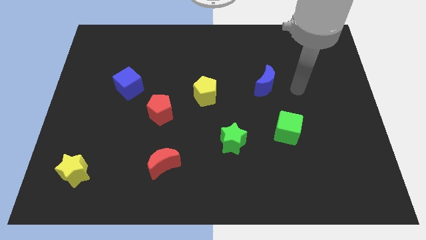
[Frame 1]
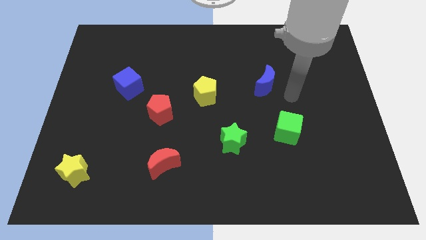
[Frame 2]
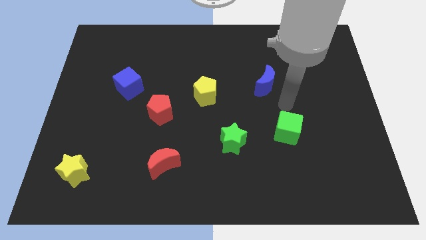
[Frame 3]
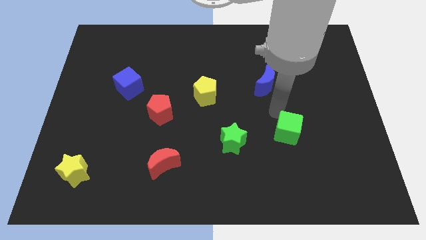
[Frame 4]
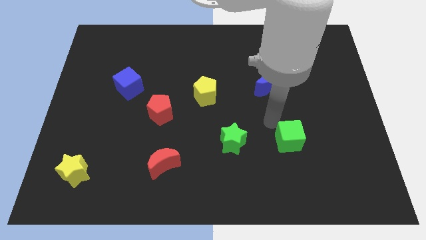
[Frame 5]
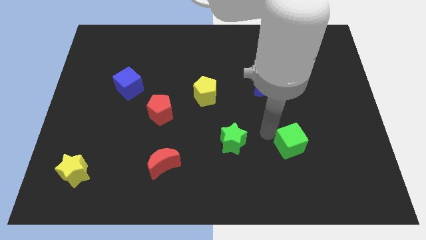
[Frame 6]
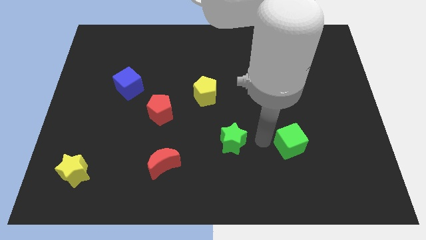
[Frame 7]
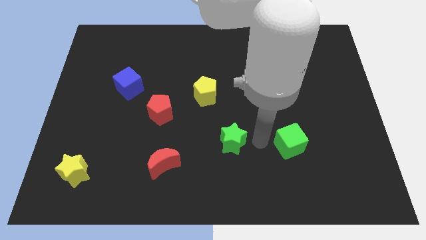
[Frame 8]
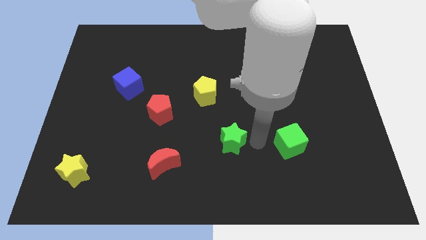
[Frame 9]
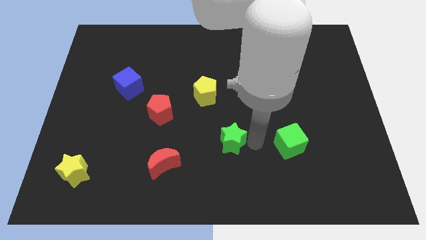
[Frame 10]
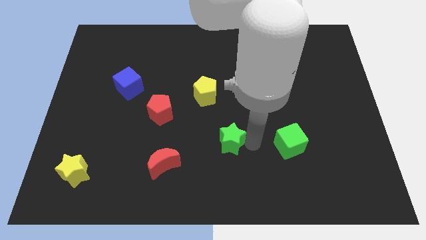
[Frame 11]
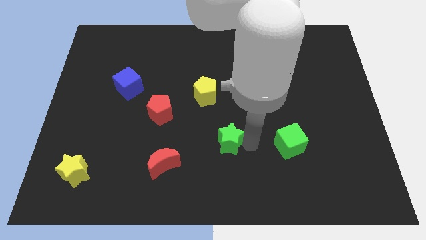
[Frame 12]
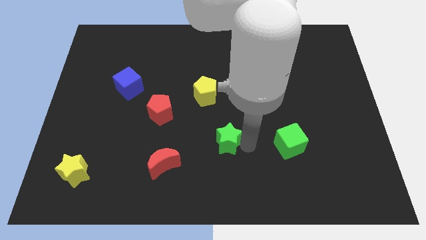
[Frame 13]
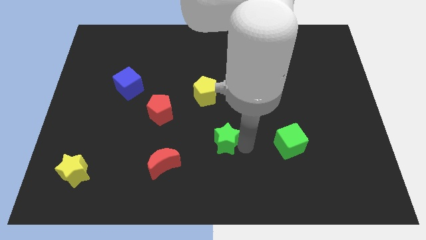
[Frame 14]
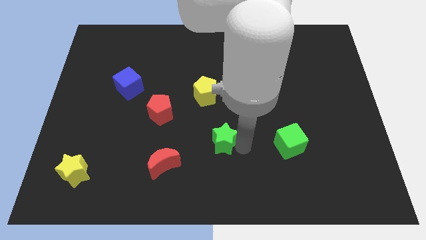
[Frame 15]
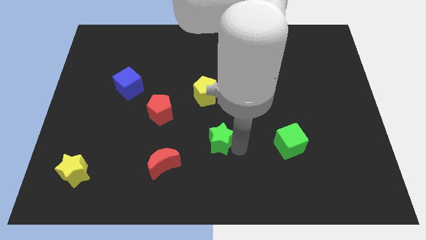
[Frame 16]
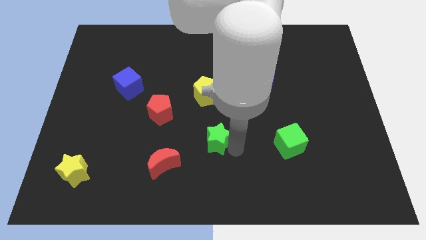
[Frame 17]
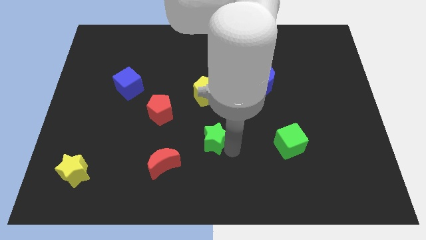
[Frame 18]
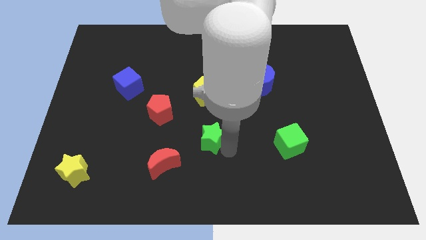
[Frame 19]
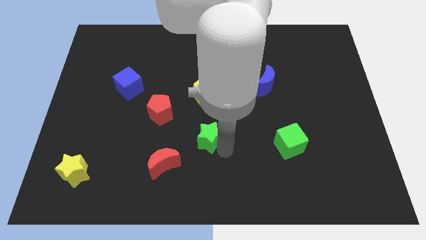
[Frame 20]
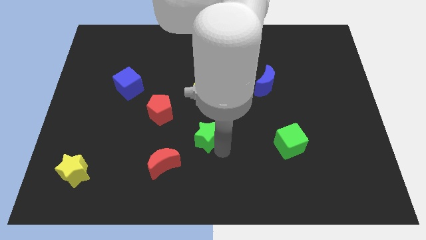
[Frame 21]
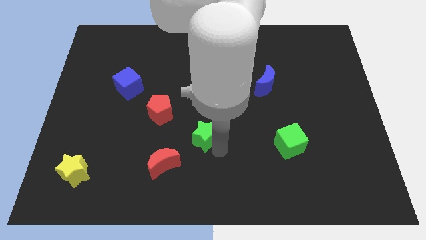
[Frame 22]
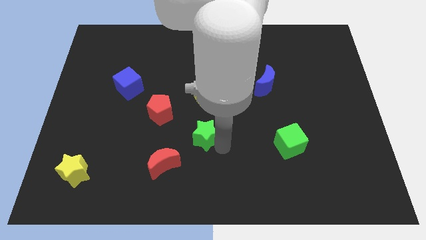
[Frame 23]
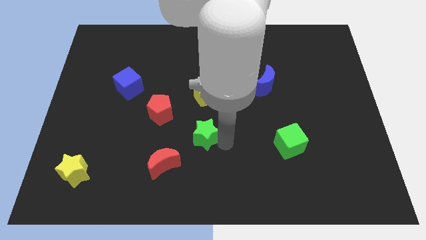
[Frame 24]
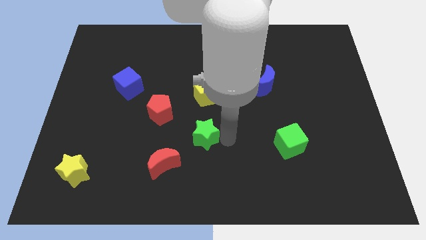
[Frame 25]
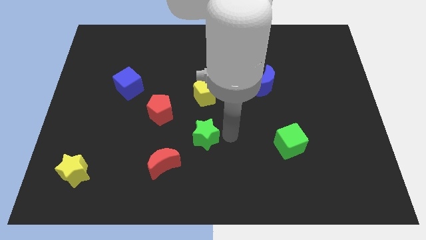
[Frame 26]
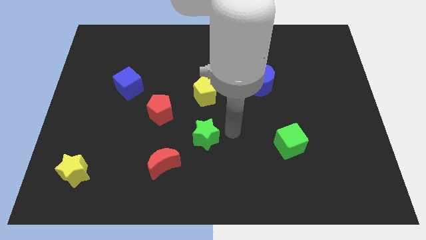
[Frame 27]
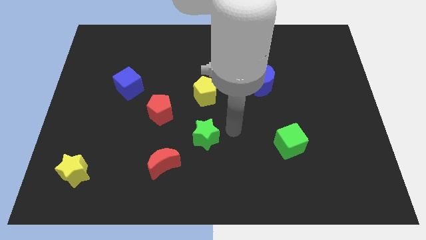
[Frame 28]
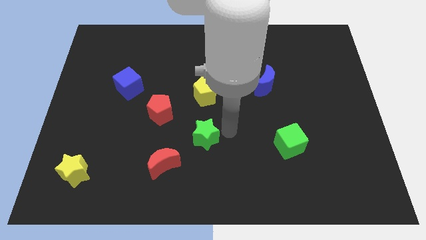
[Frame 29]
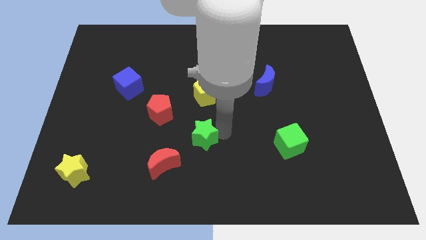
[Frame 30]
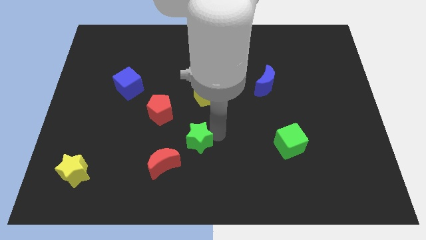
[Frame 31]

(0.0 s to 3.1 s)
push the green star left a little bit

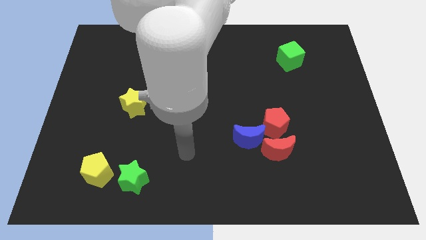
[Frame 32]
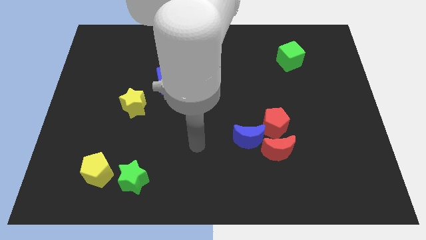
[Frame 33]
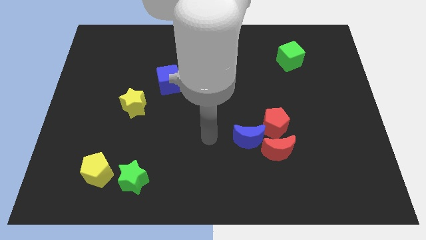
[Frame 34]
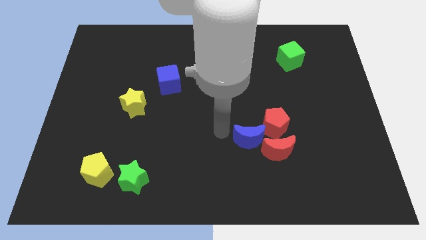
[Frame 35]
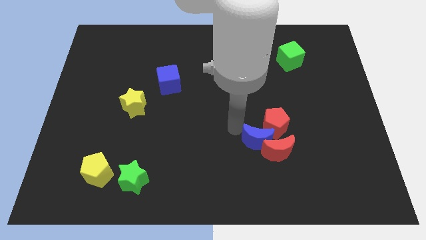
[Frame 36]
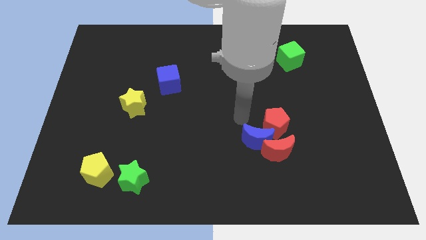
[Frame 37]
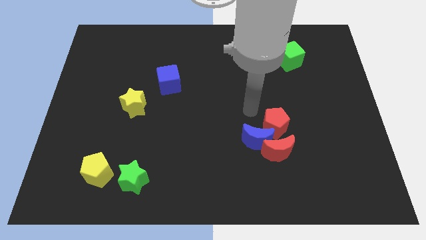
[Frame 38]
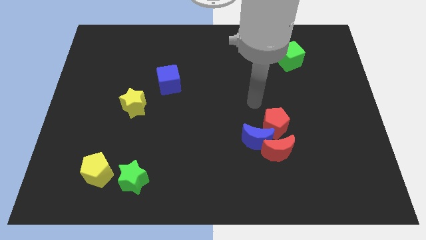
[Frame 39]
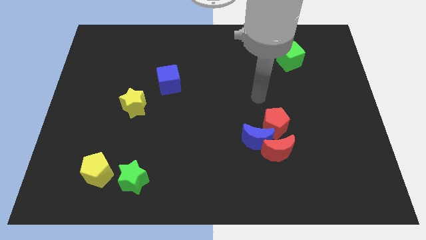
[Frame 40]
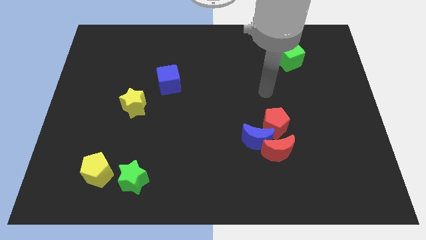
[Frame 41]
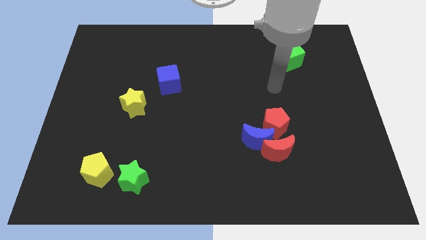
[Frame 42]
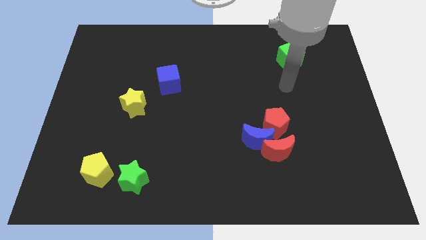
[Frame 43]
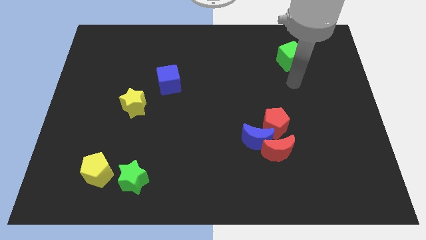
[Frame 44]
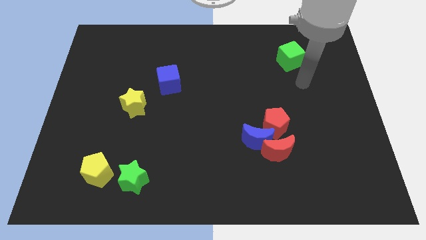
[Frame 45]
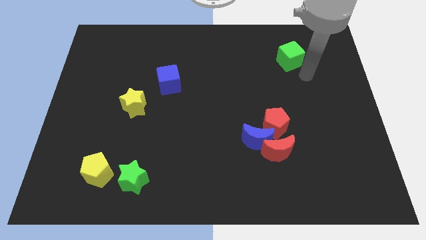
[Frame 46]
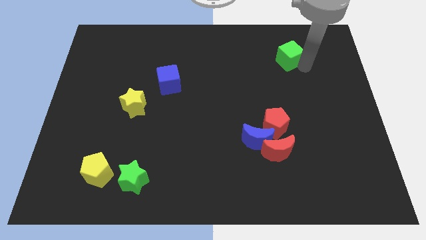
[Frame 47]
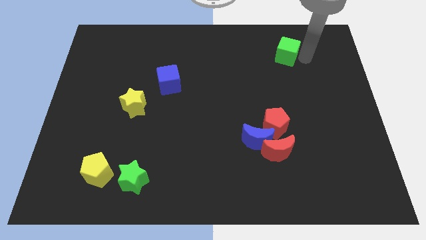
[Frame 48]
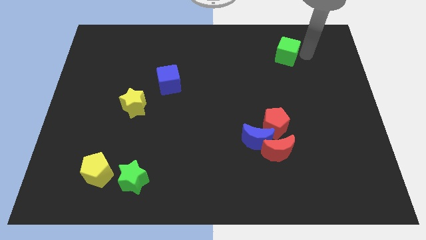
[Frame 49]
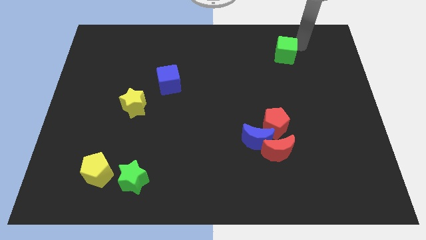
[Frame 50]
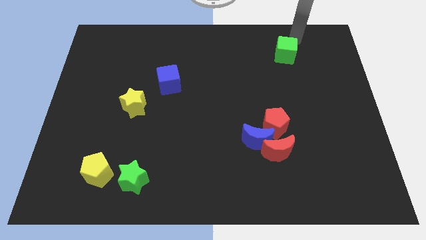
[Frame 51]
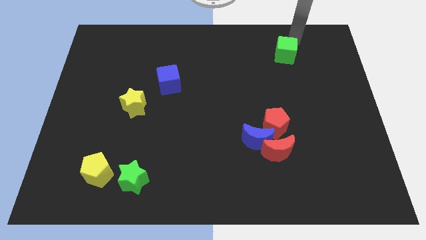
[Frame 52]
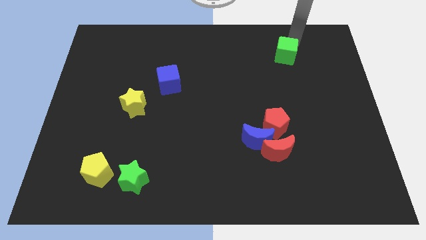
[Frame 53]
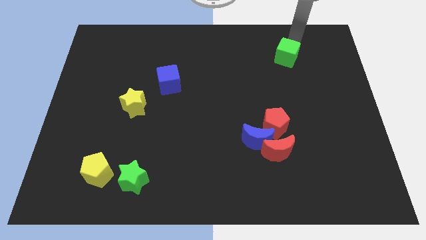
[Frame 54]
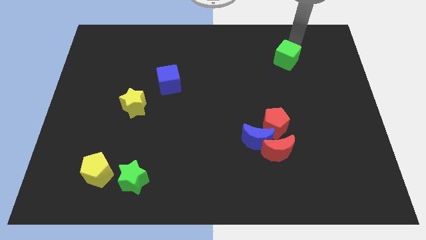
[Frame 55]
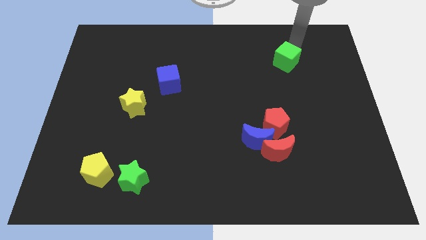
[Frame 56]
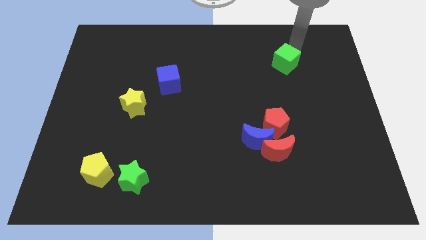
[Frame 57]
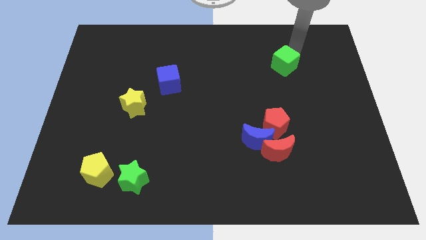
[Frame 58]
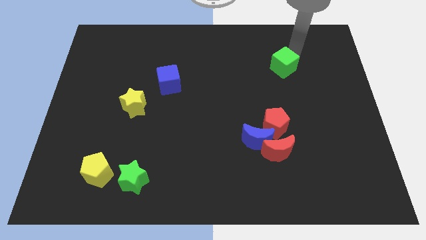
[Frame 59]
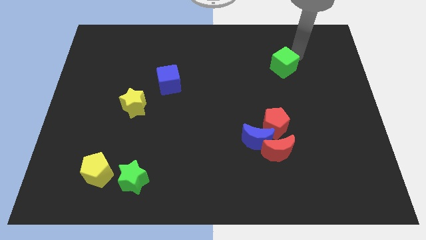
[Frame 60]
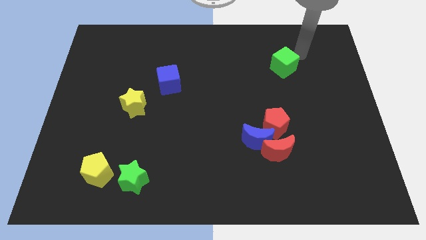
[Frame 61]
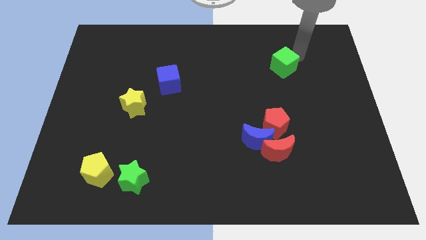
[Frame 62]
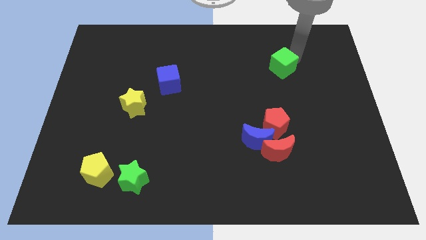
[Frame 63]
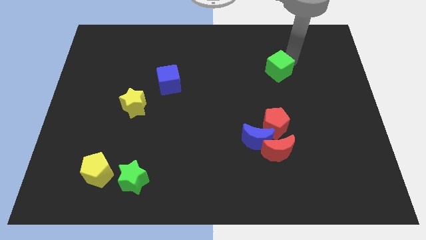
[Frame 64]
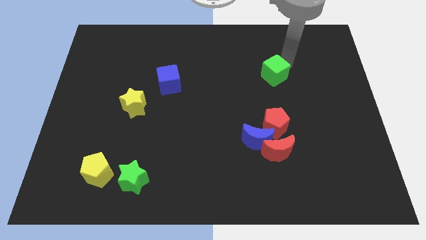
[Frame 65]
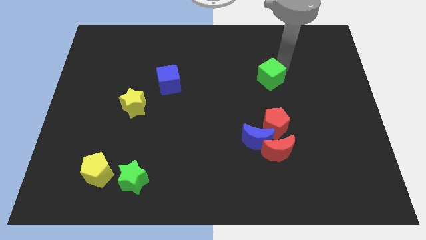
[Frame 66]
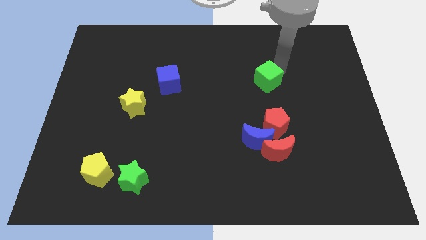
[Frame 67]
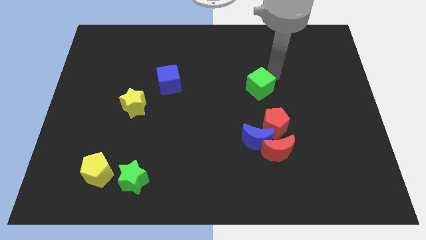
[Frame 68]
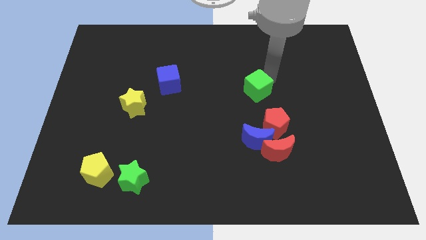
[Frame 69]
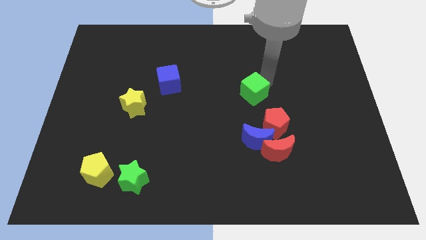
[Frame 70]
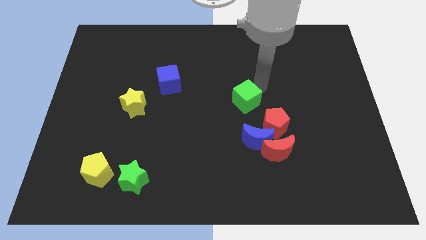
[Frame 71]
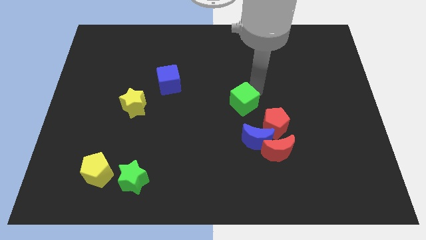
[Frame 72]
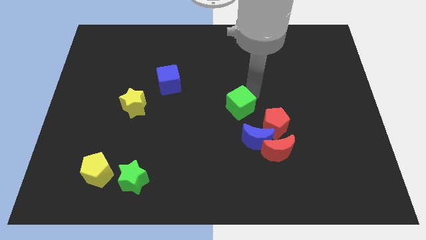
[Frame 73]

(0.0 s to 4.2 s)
move the green cube down and to the left

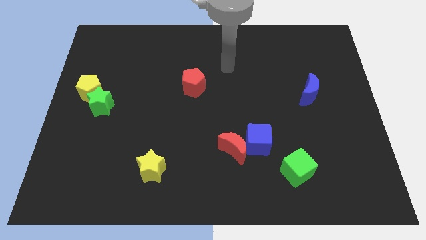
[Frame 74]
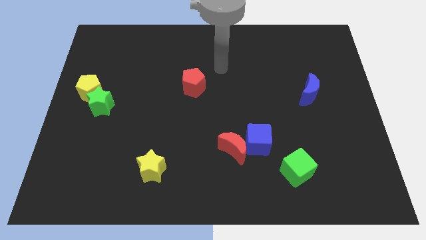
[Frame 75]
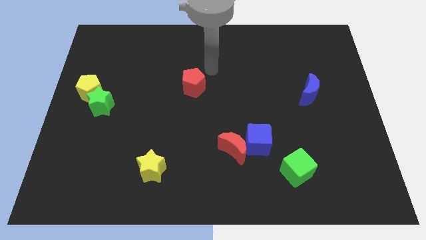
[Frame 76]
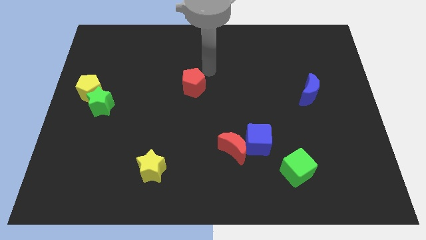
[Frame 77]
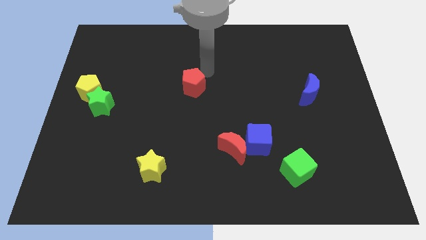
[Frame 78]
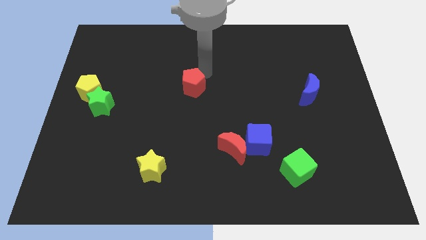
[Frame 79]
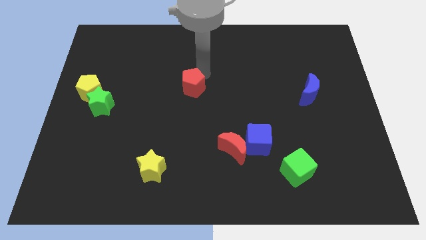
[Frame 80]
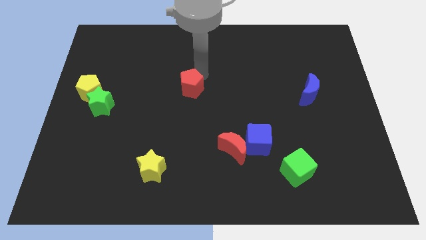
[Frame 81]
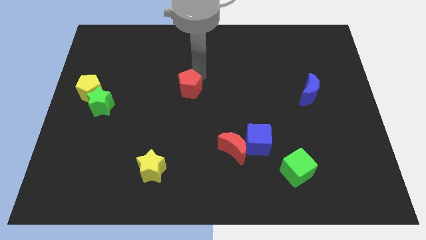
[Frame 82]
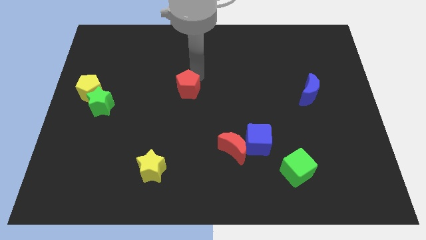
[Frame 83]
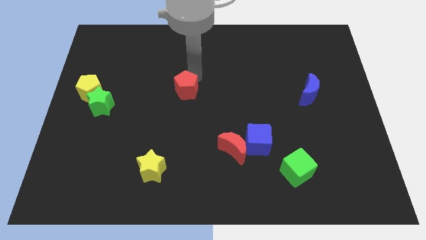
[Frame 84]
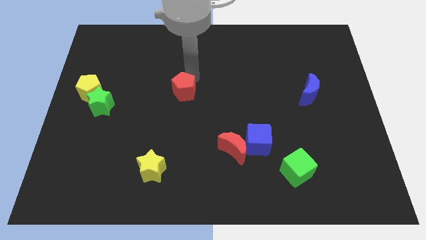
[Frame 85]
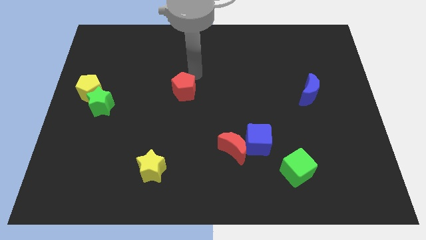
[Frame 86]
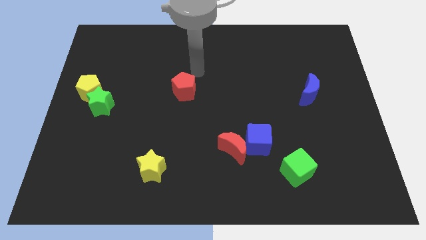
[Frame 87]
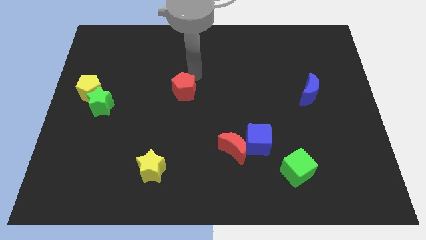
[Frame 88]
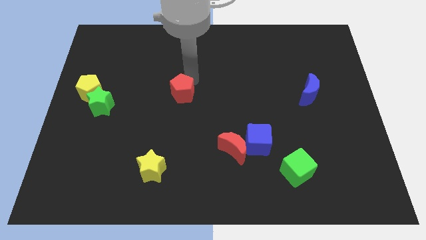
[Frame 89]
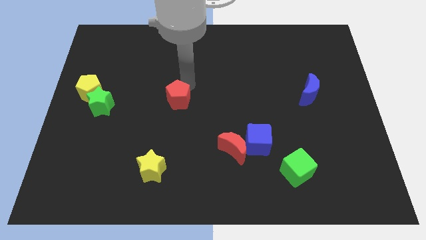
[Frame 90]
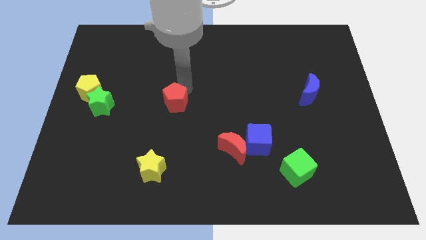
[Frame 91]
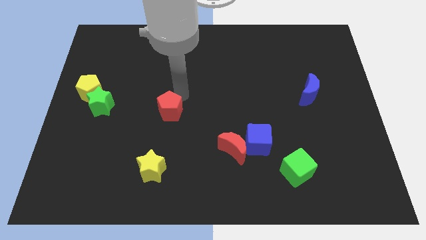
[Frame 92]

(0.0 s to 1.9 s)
move the red pentagon downwards and then to the left a little bit
